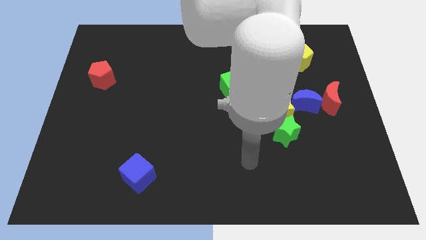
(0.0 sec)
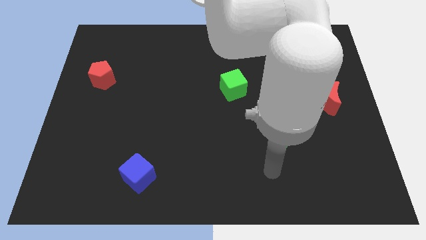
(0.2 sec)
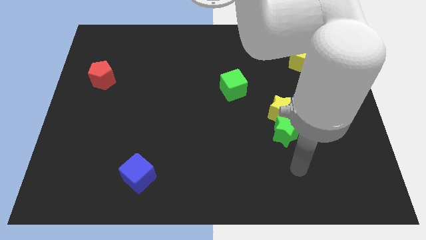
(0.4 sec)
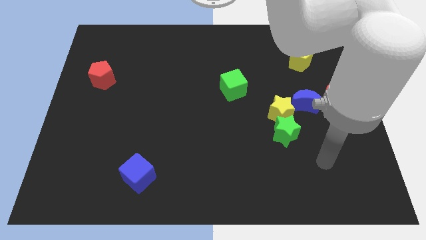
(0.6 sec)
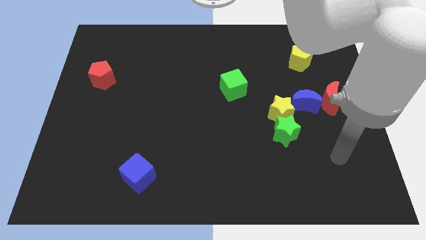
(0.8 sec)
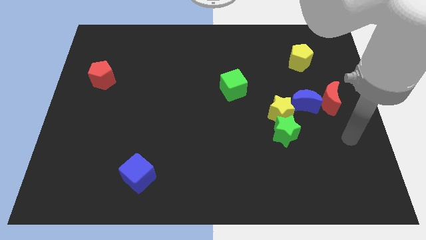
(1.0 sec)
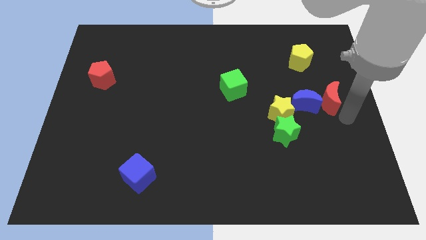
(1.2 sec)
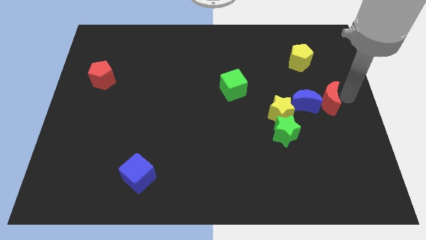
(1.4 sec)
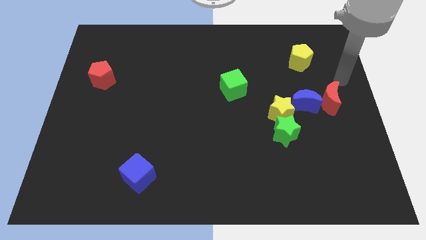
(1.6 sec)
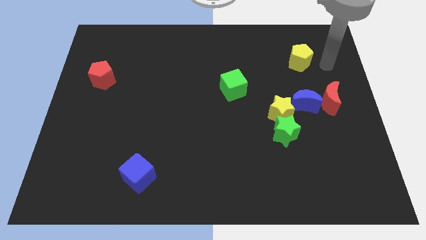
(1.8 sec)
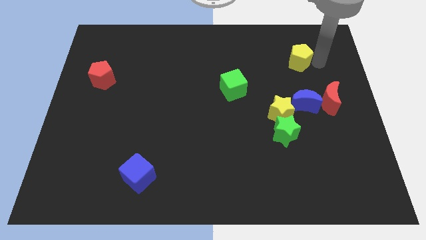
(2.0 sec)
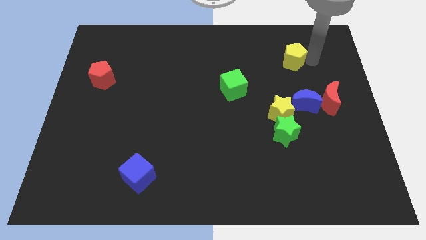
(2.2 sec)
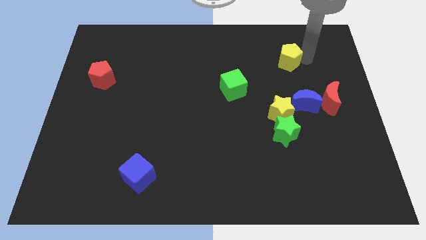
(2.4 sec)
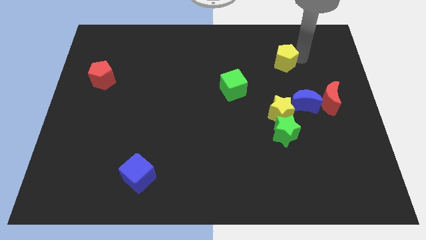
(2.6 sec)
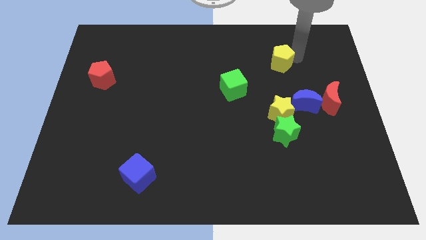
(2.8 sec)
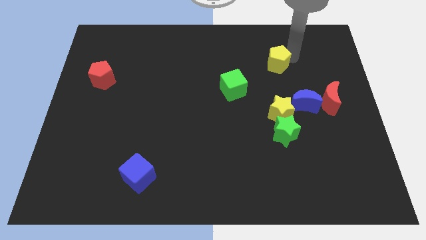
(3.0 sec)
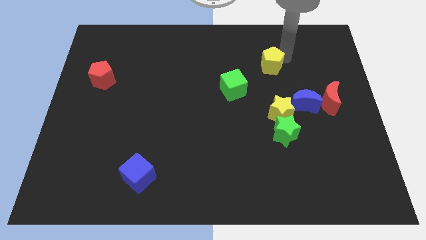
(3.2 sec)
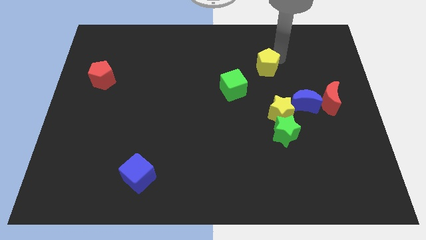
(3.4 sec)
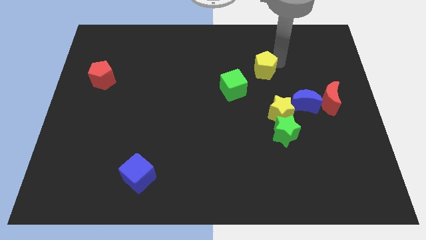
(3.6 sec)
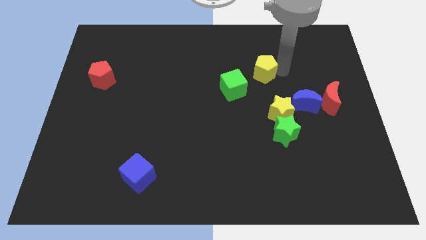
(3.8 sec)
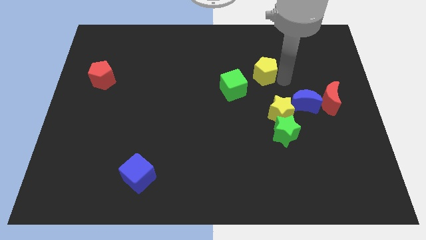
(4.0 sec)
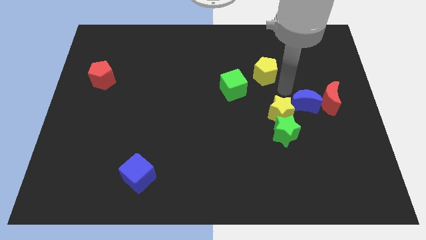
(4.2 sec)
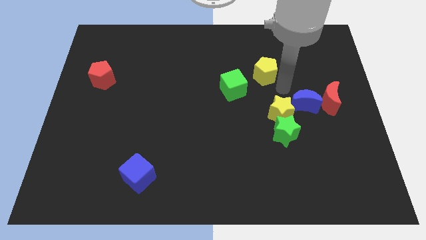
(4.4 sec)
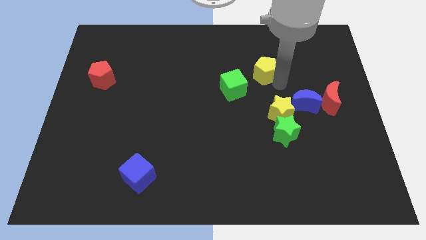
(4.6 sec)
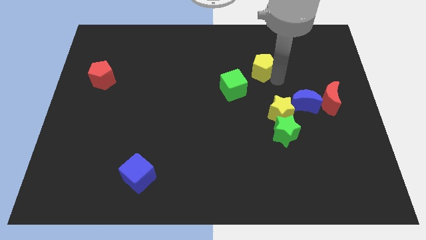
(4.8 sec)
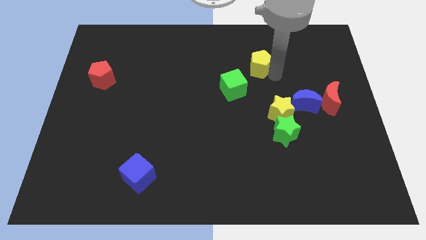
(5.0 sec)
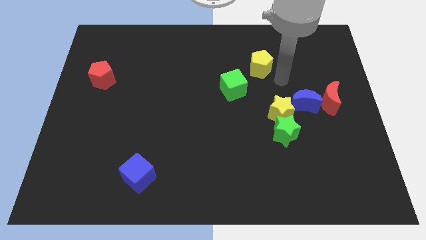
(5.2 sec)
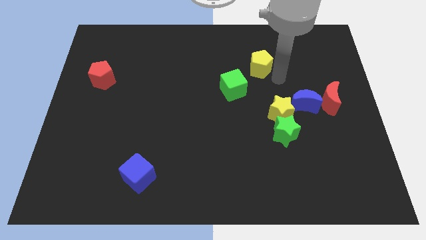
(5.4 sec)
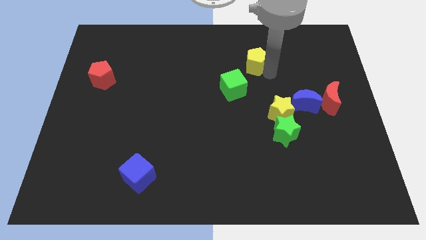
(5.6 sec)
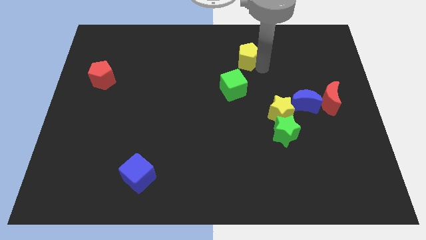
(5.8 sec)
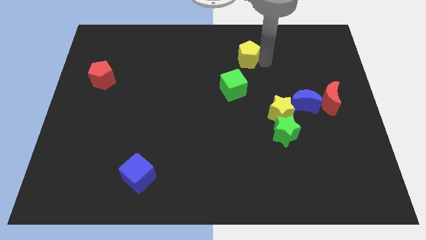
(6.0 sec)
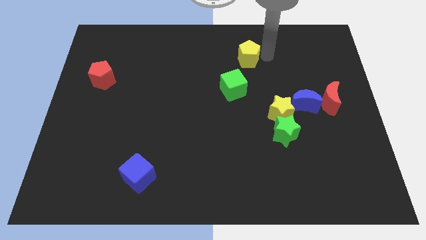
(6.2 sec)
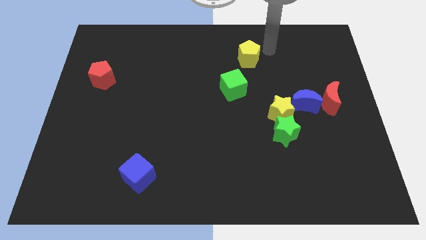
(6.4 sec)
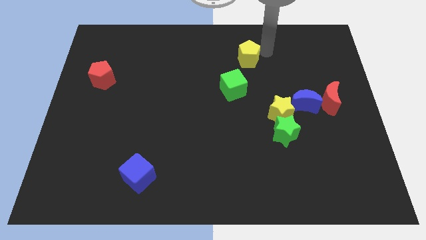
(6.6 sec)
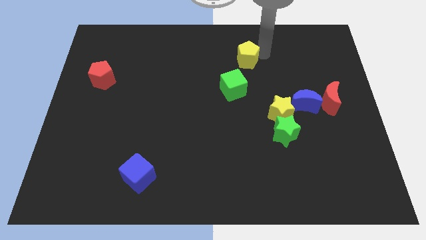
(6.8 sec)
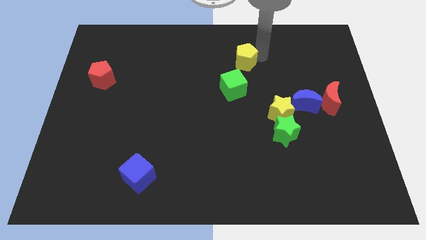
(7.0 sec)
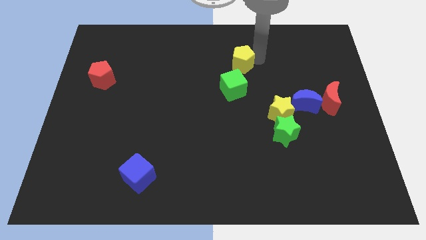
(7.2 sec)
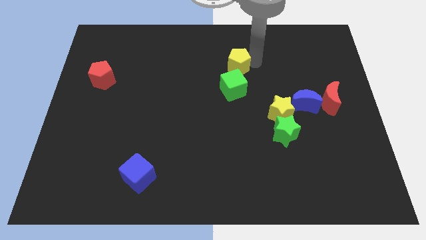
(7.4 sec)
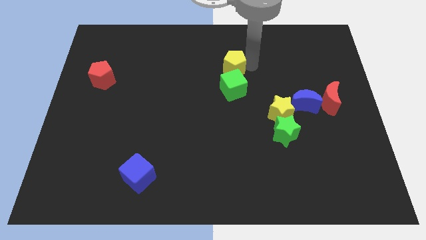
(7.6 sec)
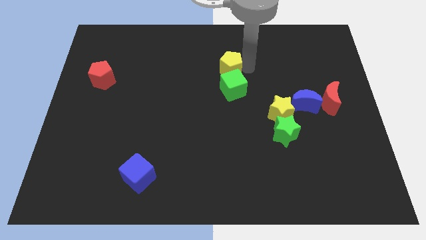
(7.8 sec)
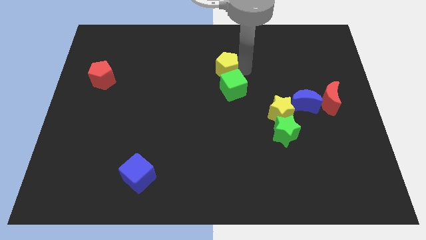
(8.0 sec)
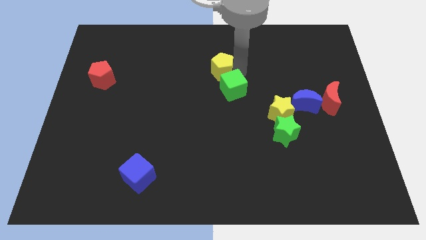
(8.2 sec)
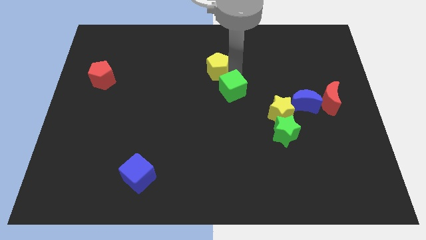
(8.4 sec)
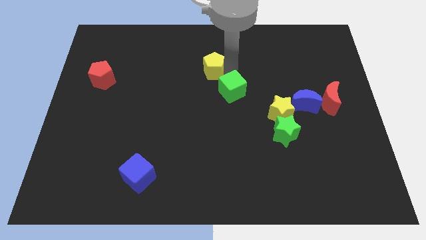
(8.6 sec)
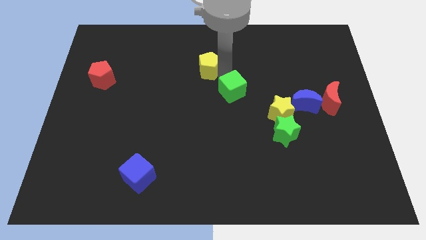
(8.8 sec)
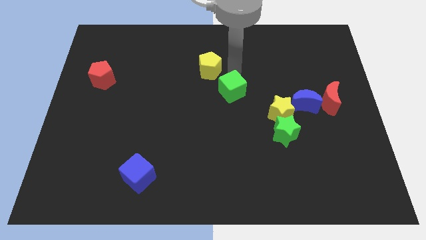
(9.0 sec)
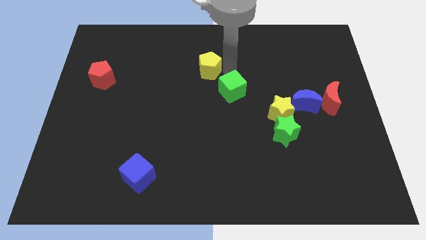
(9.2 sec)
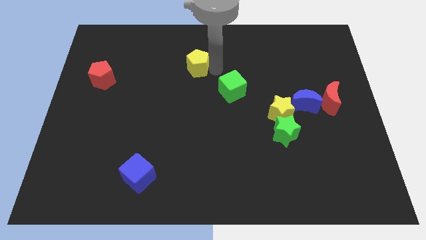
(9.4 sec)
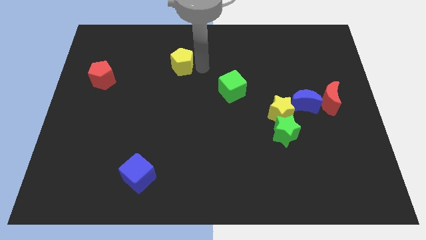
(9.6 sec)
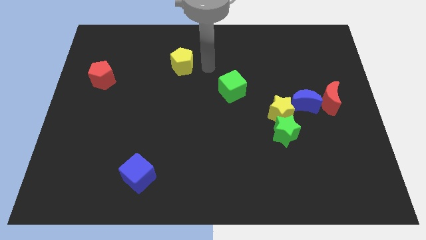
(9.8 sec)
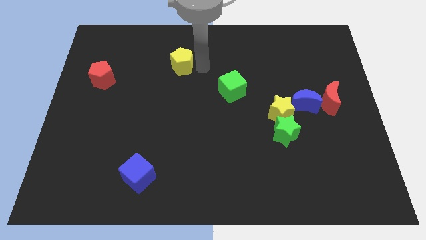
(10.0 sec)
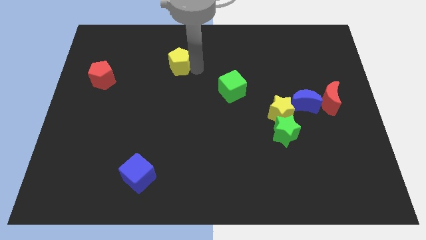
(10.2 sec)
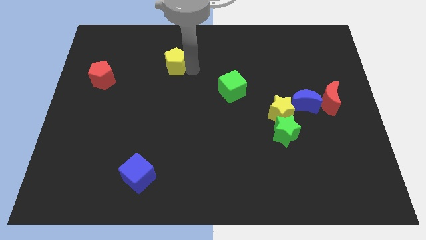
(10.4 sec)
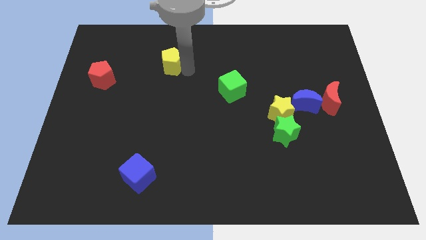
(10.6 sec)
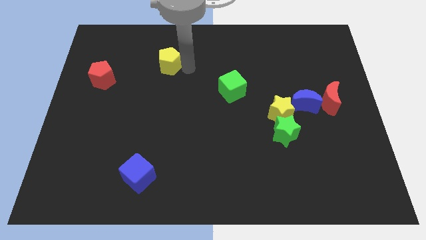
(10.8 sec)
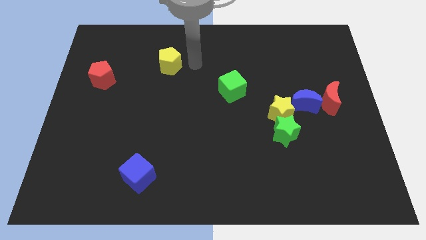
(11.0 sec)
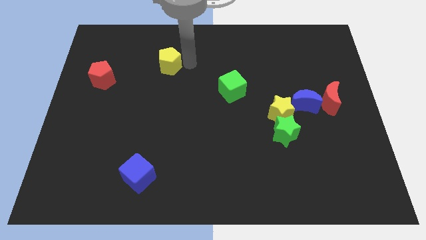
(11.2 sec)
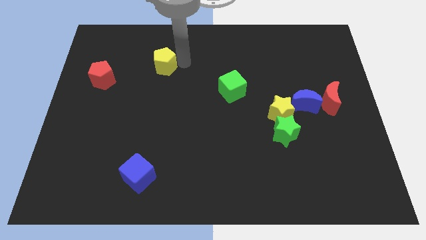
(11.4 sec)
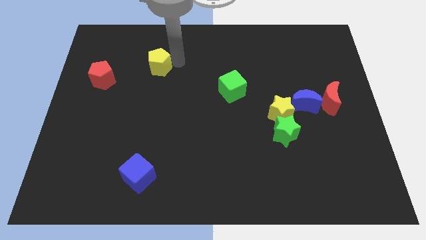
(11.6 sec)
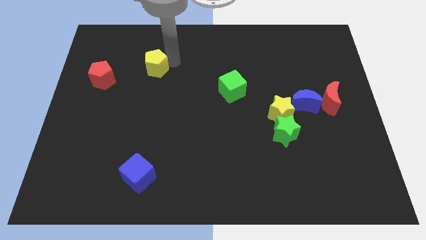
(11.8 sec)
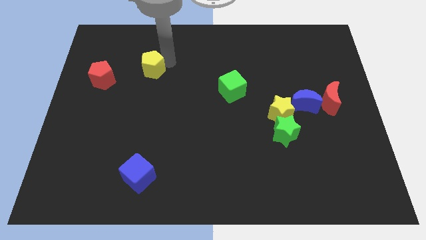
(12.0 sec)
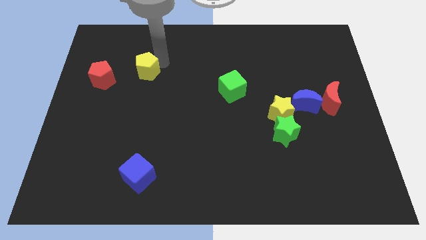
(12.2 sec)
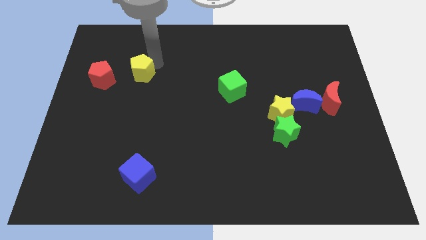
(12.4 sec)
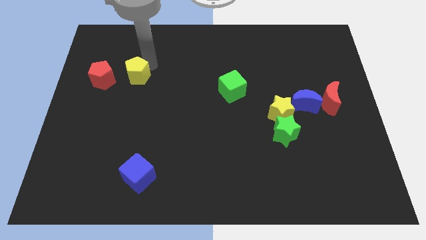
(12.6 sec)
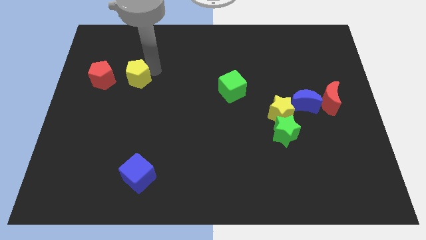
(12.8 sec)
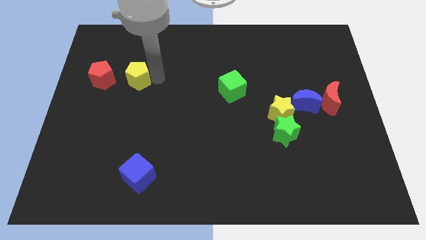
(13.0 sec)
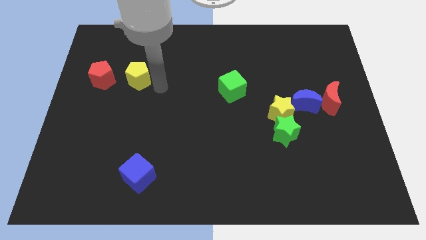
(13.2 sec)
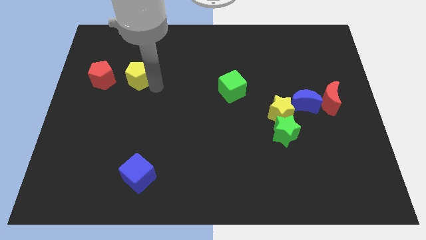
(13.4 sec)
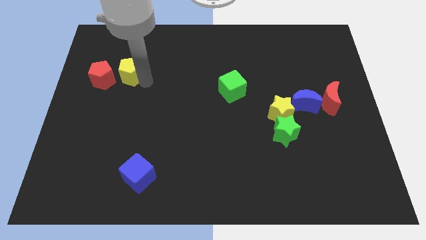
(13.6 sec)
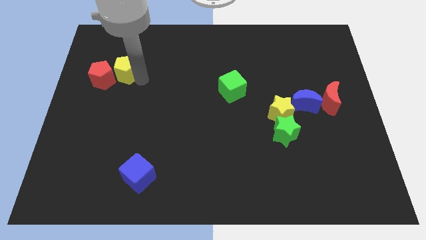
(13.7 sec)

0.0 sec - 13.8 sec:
put the yellow pentagon close to the red pentagon
